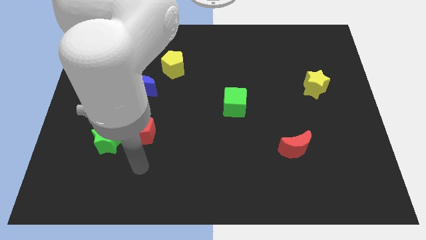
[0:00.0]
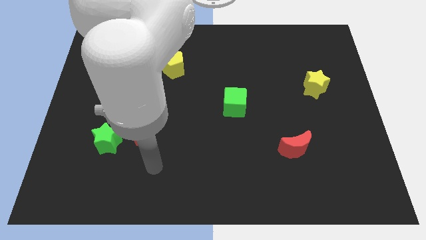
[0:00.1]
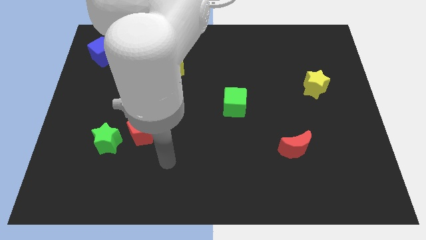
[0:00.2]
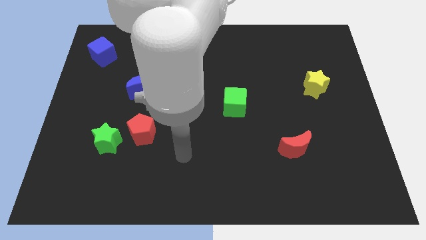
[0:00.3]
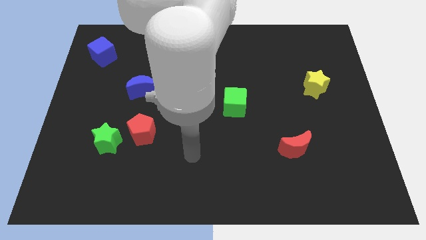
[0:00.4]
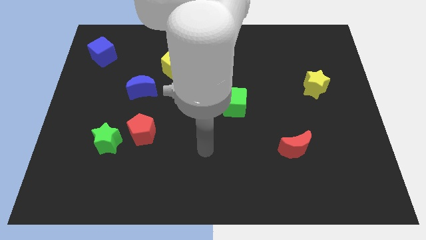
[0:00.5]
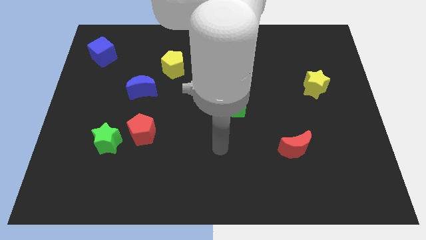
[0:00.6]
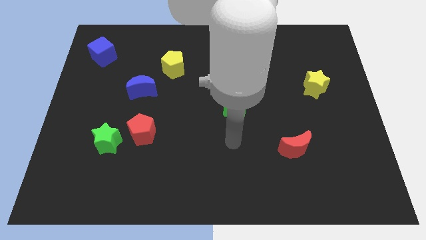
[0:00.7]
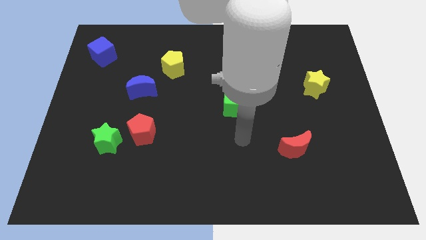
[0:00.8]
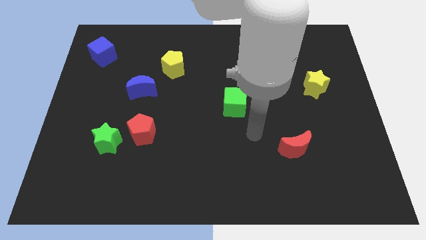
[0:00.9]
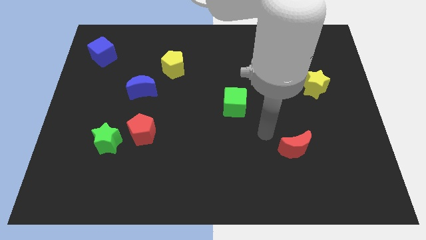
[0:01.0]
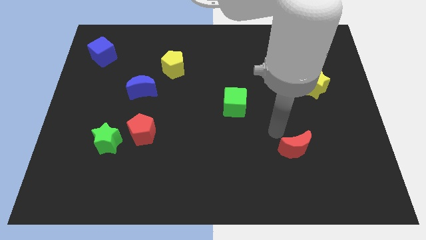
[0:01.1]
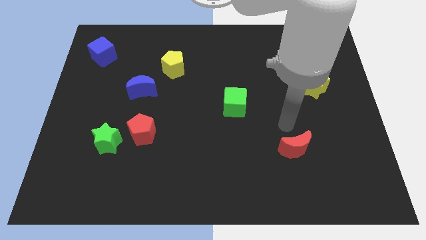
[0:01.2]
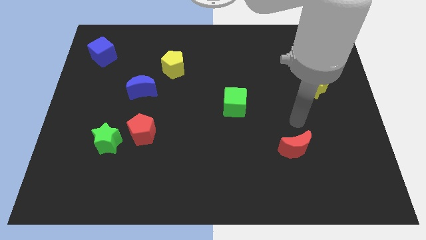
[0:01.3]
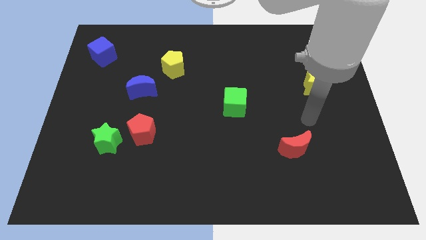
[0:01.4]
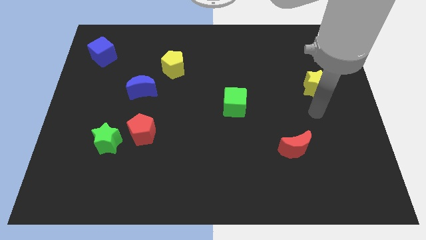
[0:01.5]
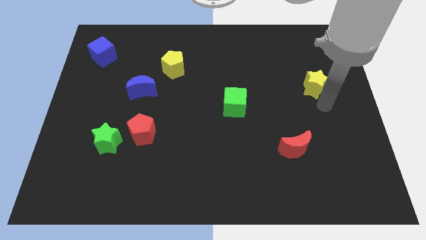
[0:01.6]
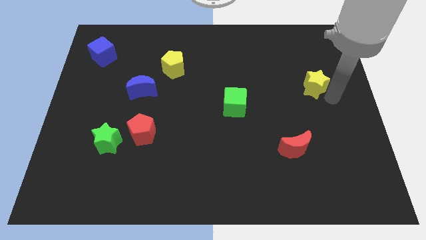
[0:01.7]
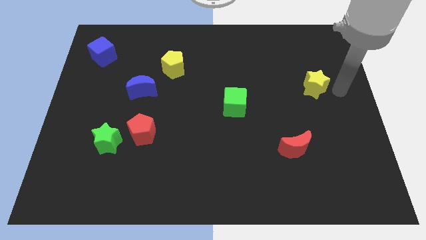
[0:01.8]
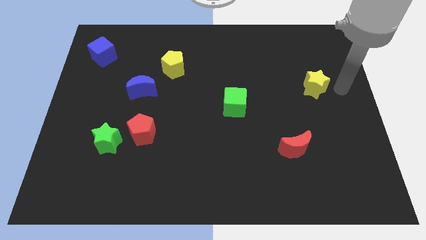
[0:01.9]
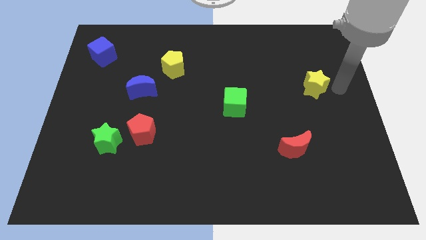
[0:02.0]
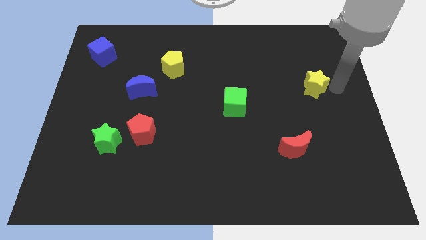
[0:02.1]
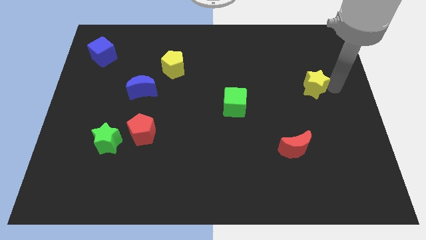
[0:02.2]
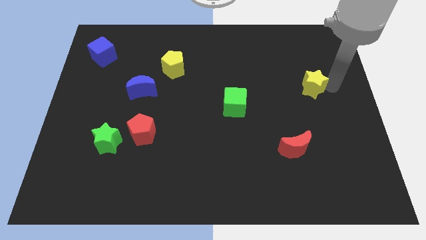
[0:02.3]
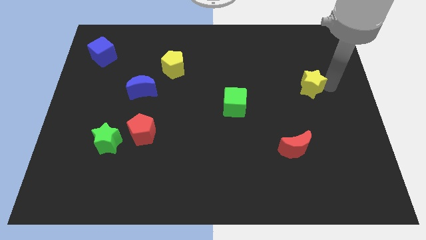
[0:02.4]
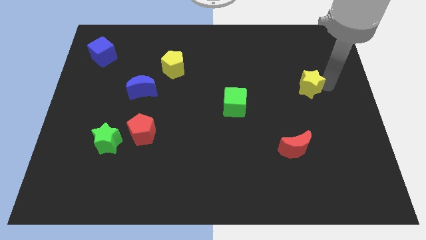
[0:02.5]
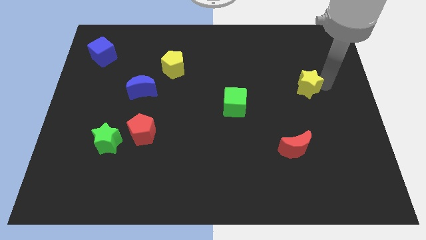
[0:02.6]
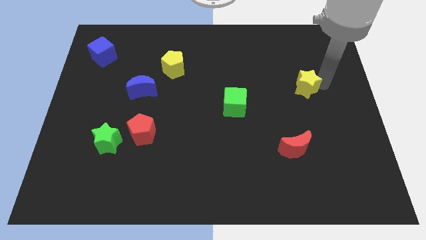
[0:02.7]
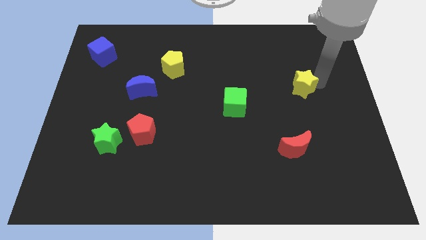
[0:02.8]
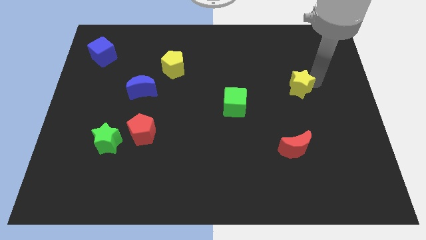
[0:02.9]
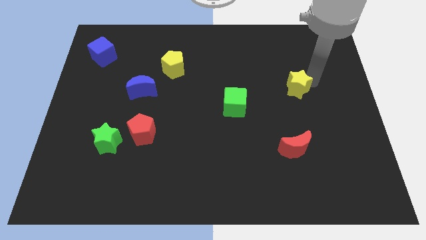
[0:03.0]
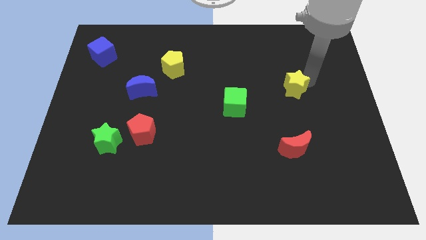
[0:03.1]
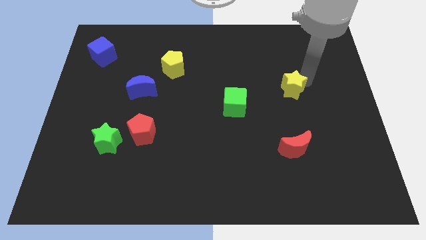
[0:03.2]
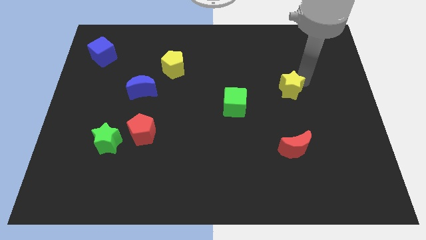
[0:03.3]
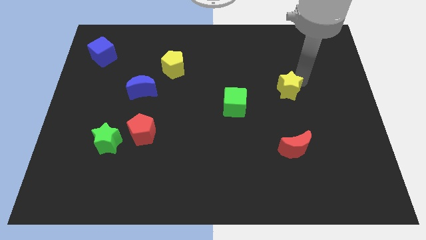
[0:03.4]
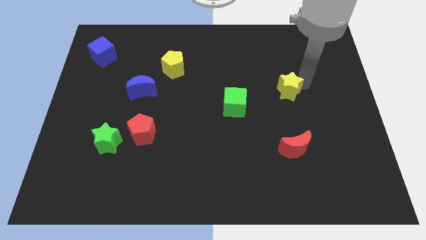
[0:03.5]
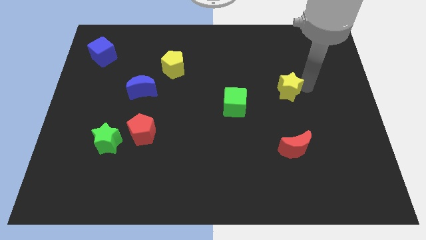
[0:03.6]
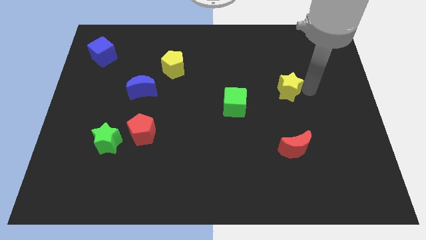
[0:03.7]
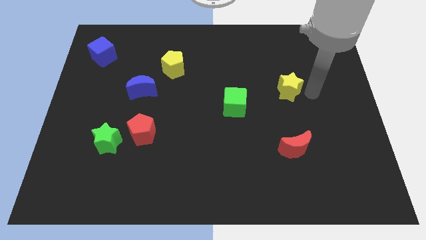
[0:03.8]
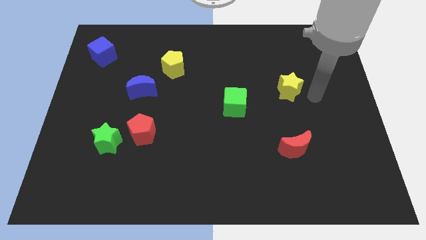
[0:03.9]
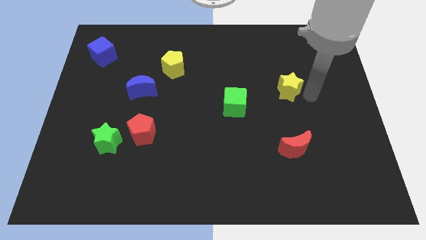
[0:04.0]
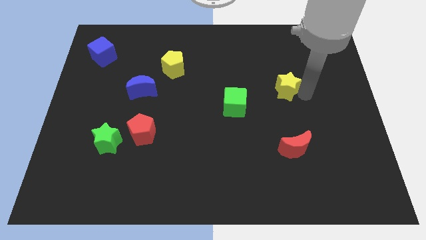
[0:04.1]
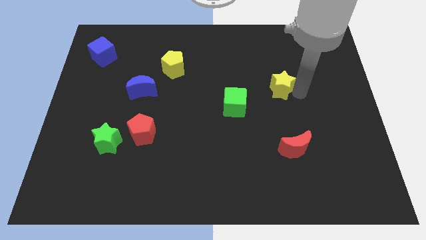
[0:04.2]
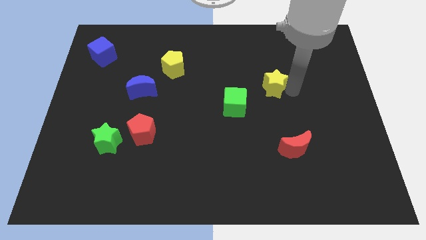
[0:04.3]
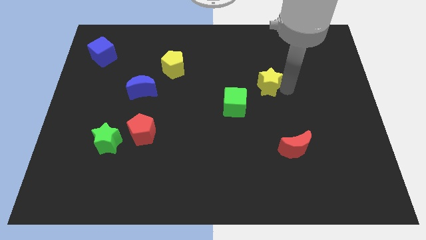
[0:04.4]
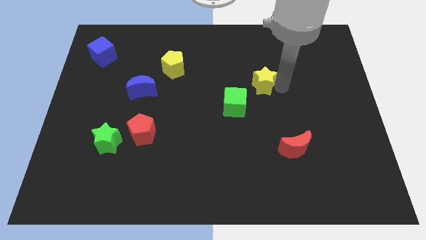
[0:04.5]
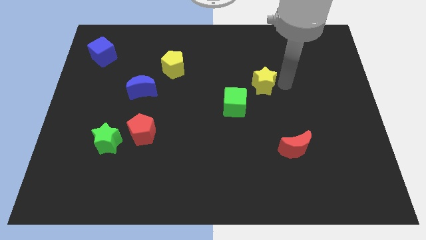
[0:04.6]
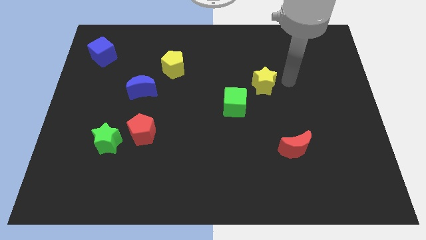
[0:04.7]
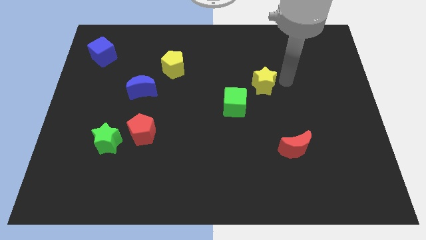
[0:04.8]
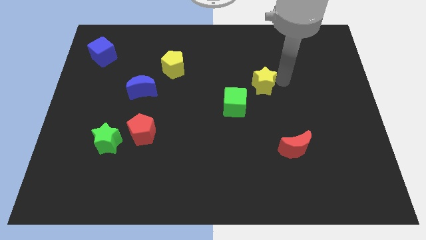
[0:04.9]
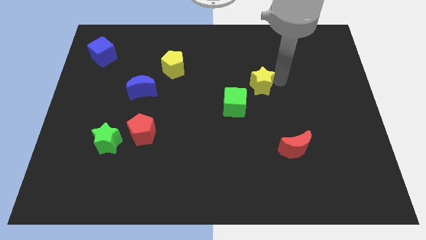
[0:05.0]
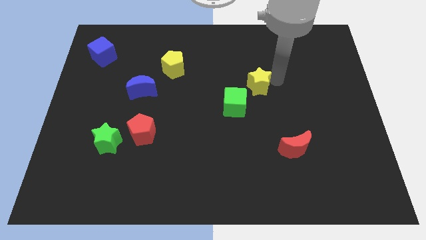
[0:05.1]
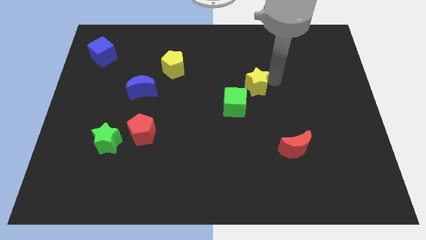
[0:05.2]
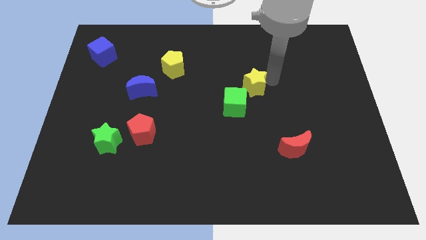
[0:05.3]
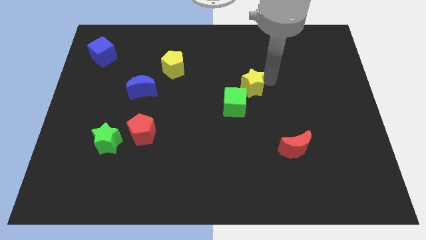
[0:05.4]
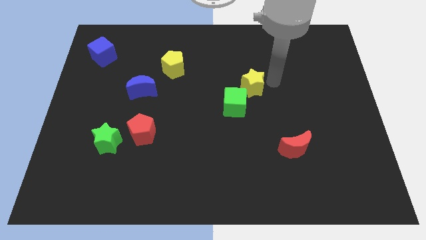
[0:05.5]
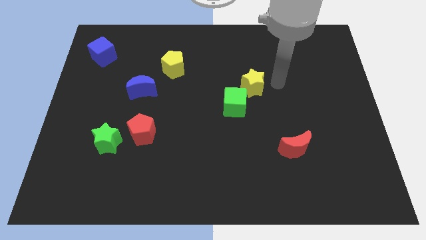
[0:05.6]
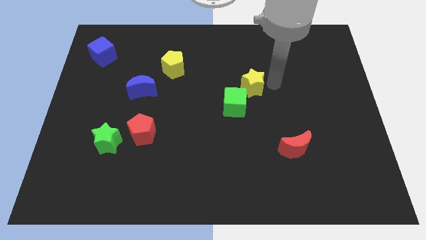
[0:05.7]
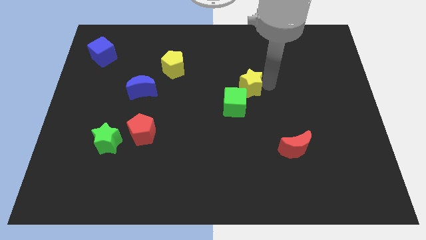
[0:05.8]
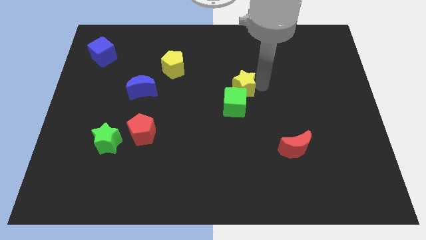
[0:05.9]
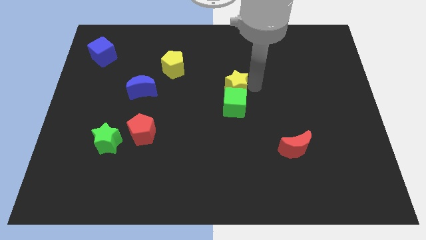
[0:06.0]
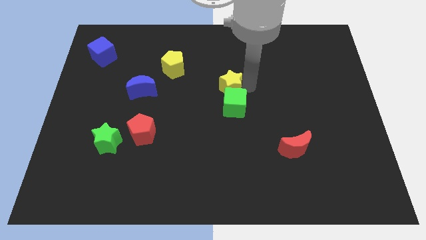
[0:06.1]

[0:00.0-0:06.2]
move the yellow star to the left

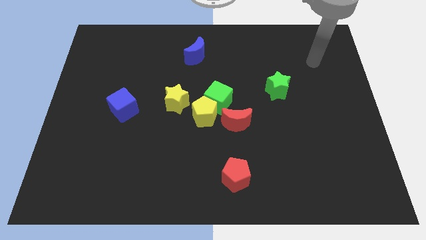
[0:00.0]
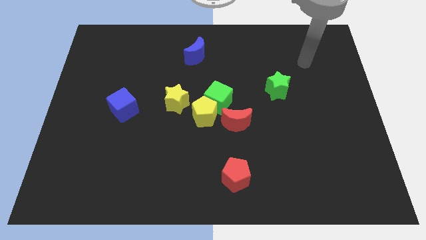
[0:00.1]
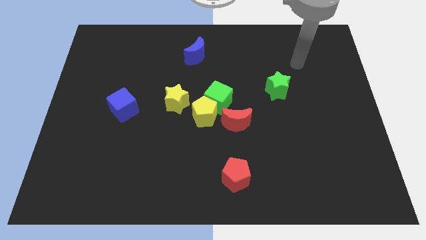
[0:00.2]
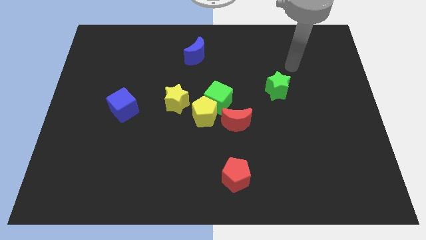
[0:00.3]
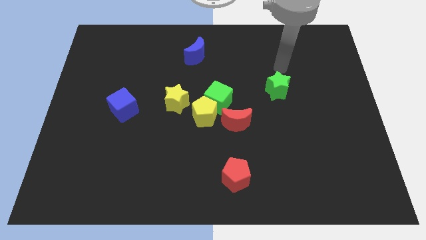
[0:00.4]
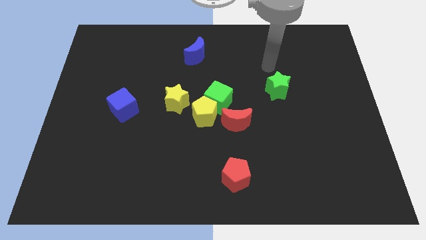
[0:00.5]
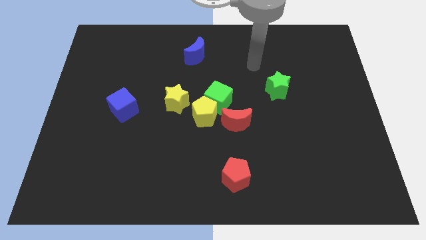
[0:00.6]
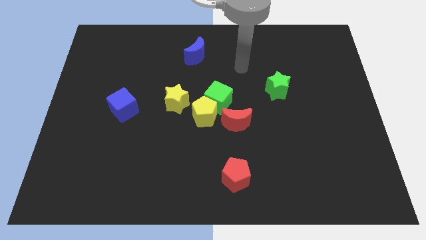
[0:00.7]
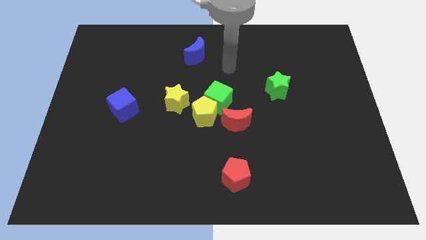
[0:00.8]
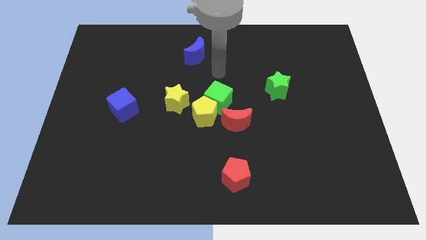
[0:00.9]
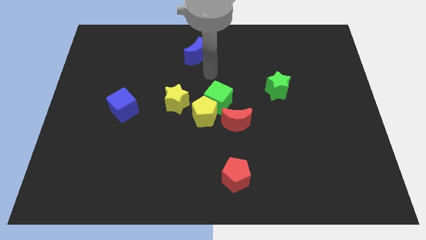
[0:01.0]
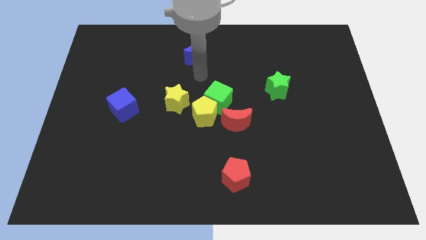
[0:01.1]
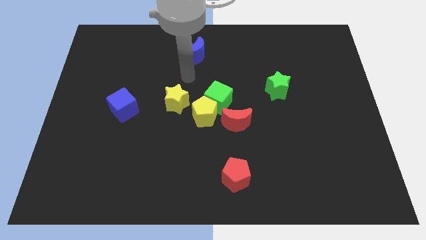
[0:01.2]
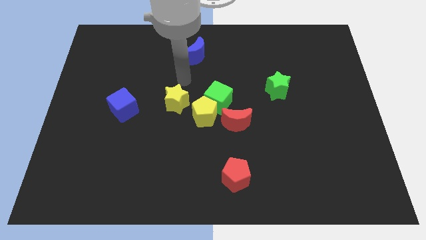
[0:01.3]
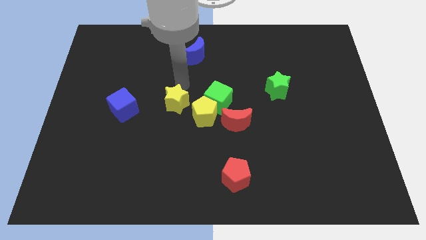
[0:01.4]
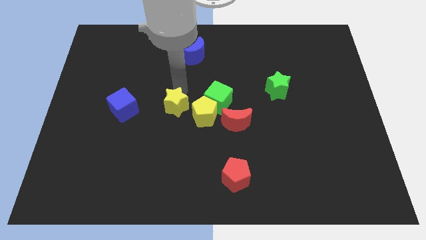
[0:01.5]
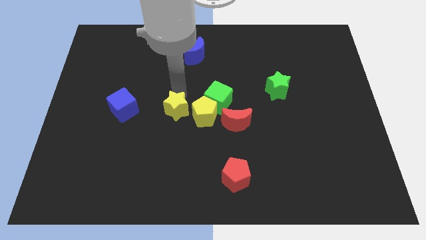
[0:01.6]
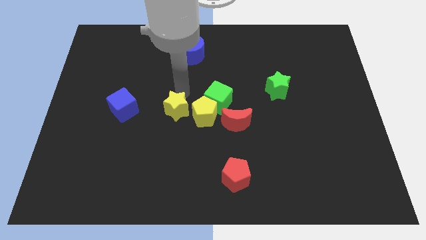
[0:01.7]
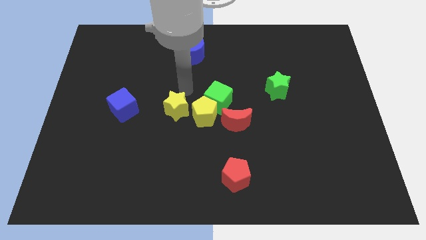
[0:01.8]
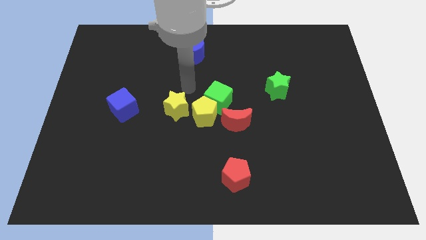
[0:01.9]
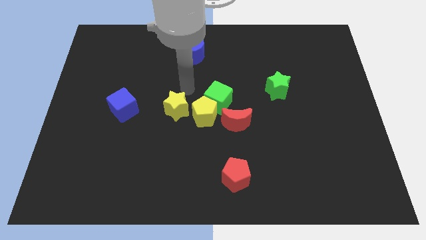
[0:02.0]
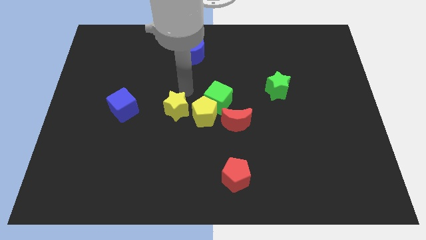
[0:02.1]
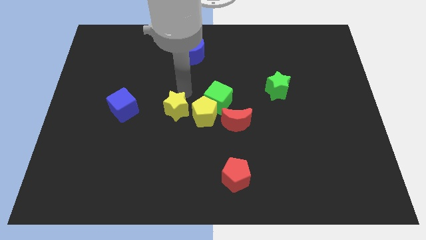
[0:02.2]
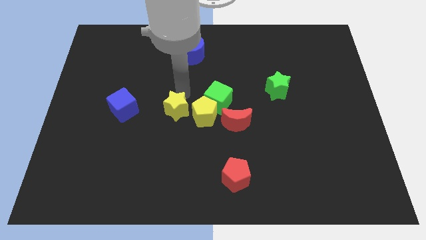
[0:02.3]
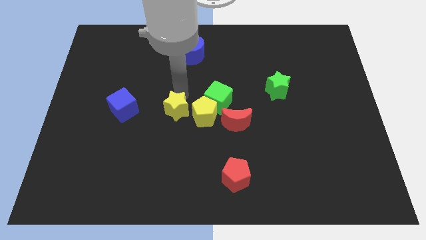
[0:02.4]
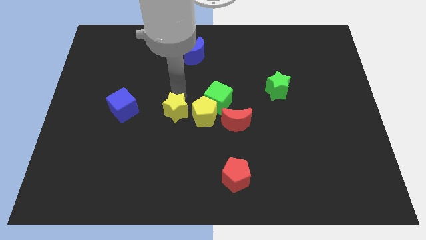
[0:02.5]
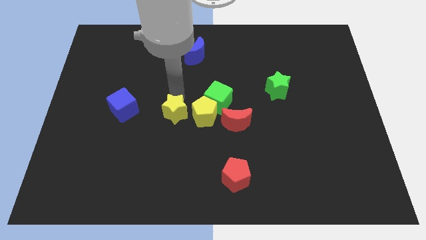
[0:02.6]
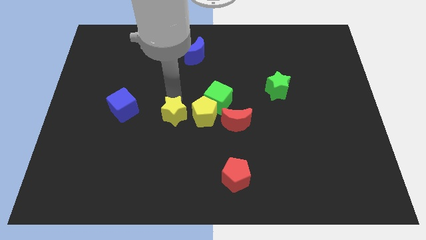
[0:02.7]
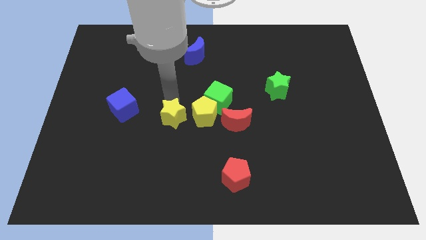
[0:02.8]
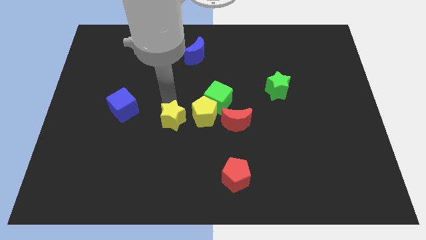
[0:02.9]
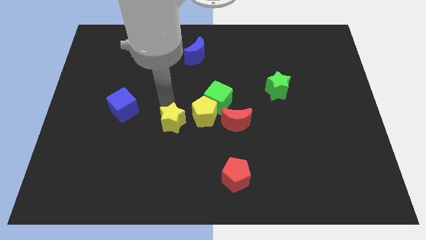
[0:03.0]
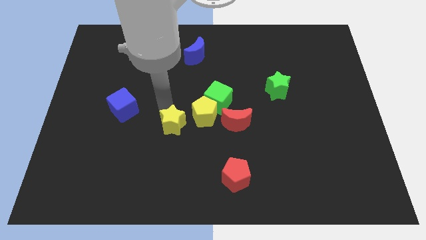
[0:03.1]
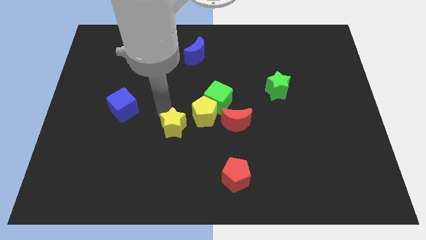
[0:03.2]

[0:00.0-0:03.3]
push the yellow star down a little bit
